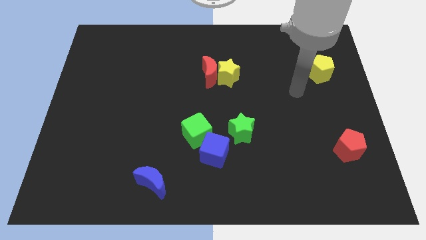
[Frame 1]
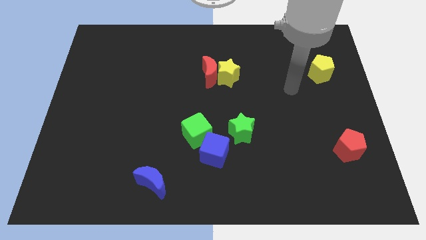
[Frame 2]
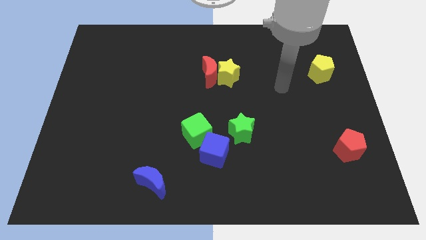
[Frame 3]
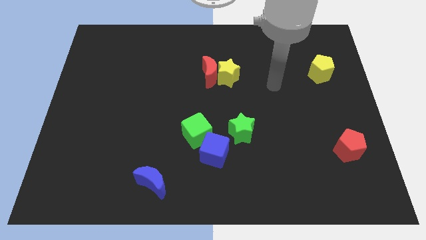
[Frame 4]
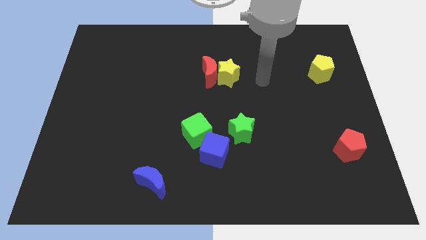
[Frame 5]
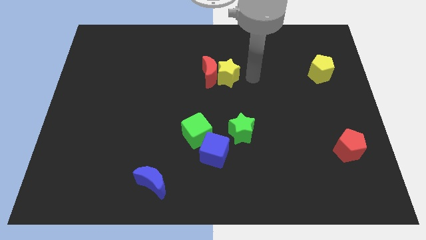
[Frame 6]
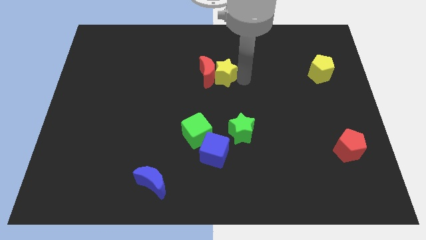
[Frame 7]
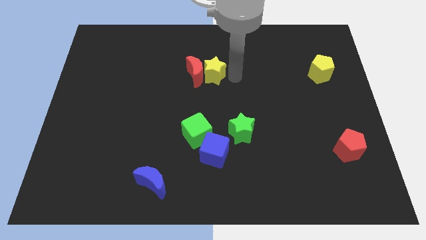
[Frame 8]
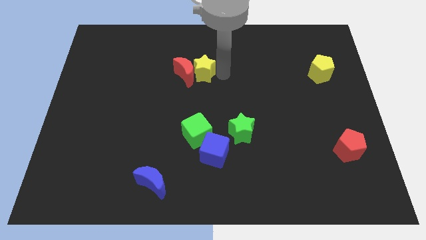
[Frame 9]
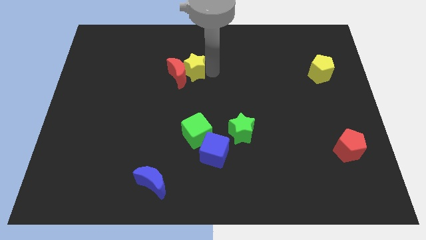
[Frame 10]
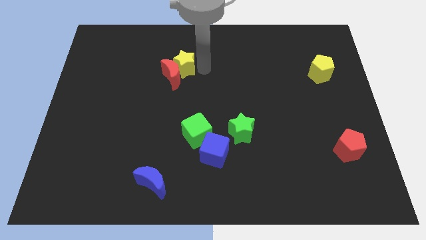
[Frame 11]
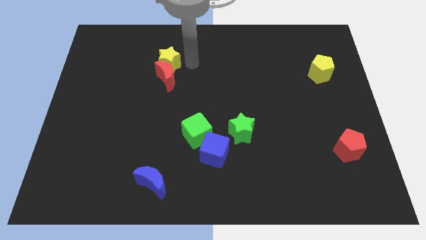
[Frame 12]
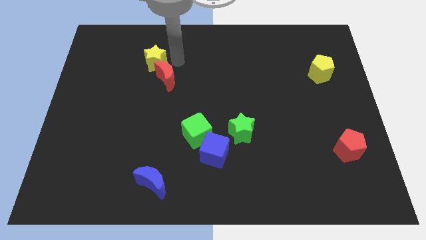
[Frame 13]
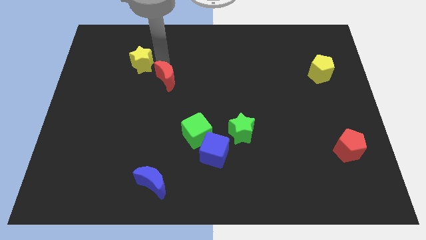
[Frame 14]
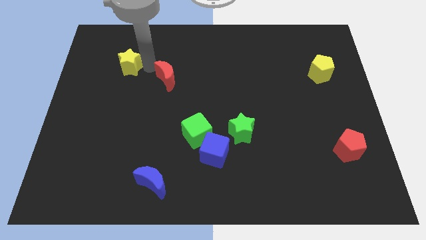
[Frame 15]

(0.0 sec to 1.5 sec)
separate the red moon from the yellow star

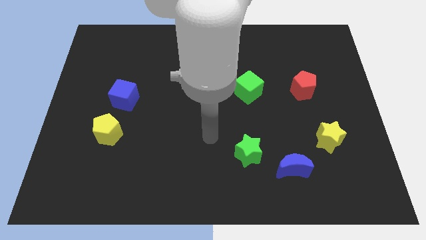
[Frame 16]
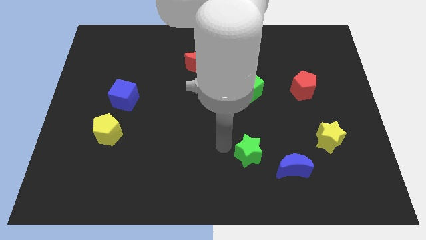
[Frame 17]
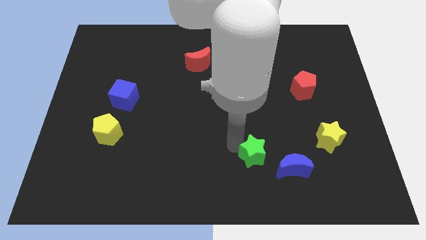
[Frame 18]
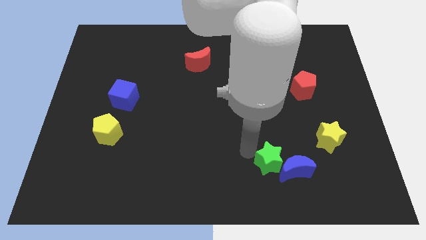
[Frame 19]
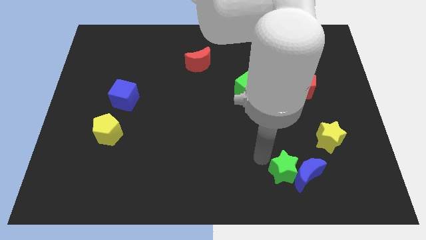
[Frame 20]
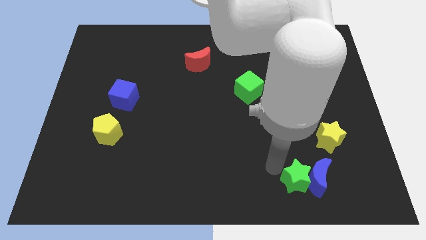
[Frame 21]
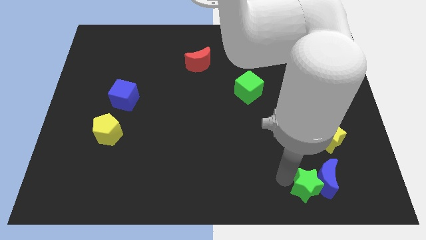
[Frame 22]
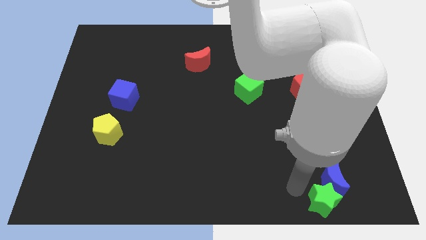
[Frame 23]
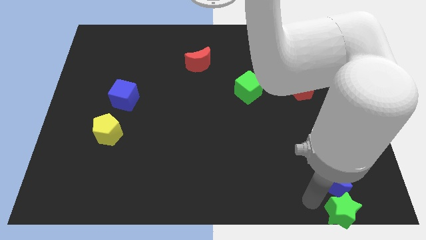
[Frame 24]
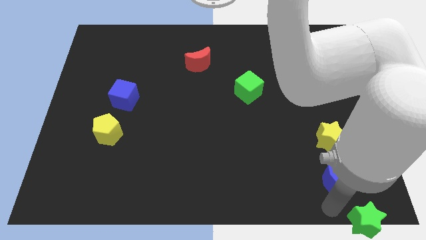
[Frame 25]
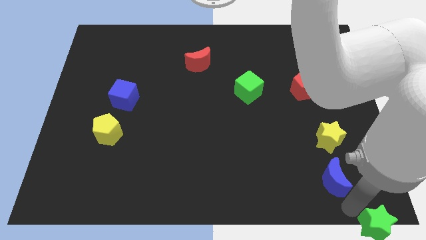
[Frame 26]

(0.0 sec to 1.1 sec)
separate the blue moon from the green star

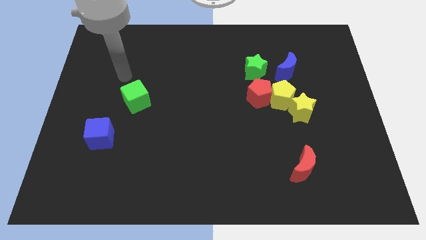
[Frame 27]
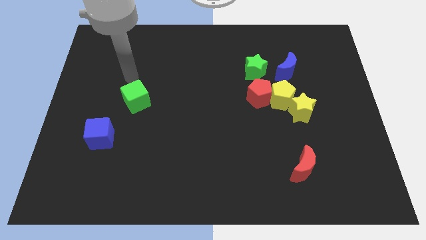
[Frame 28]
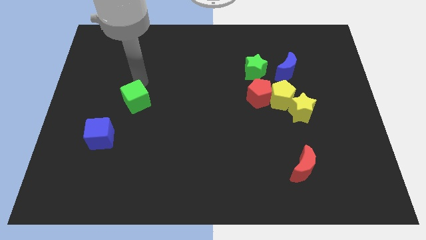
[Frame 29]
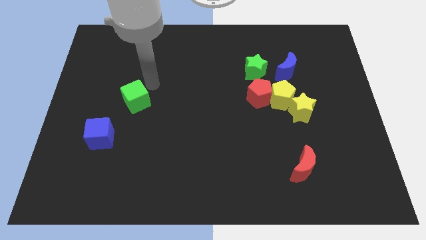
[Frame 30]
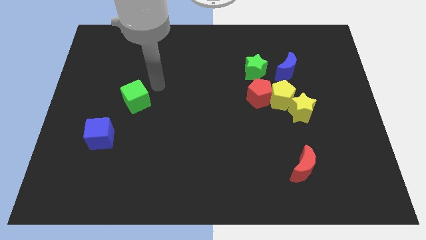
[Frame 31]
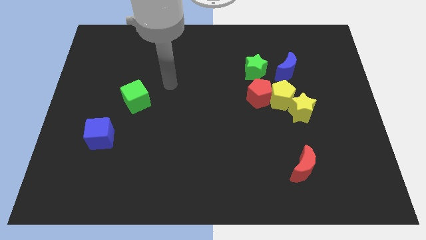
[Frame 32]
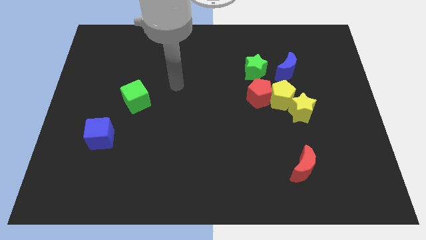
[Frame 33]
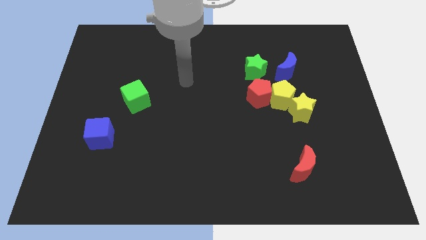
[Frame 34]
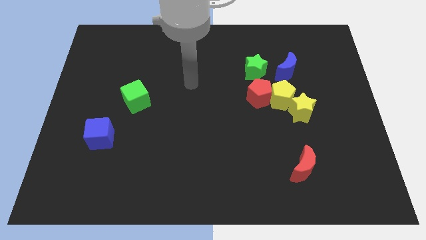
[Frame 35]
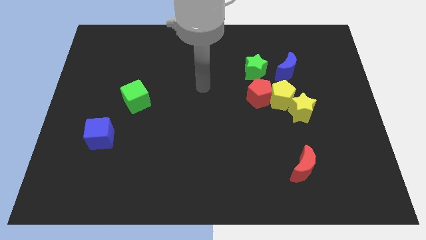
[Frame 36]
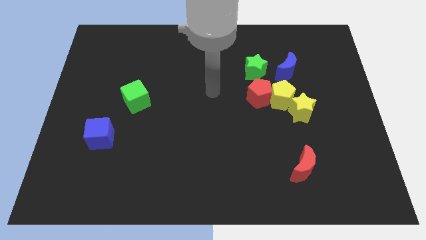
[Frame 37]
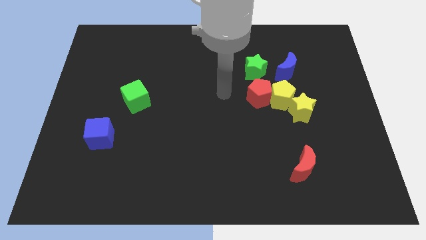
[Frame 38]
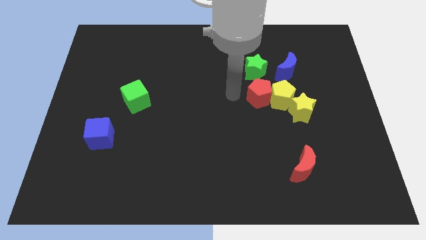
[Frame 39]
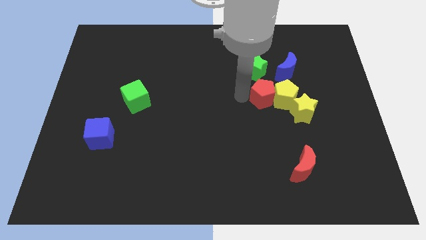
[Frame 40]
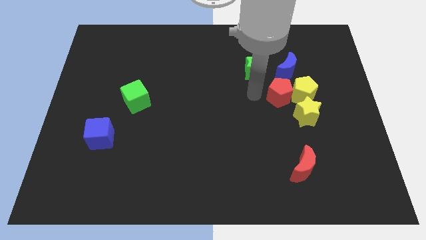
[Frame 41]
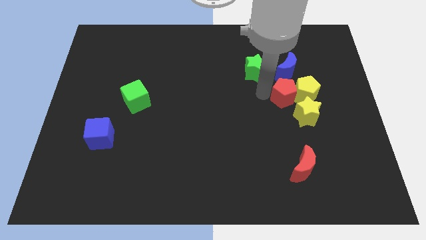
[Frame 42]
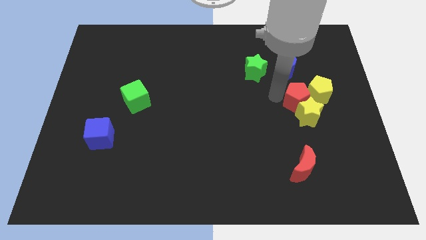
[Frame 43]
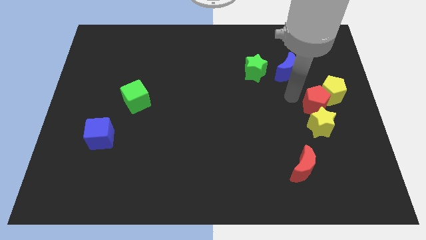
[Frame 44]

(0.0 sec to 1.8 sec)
move the yellow star away from the yellow pentagon

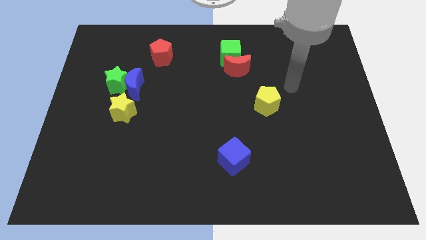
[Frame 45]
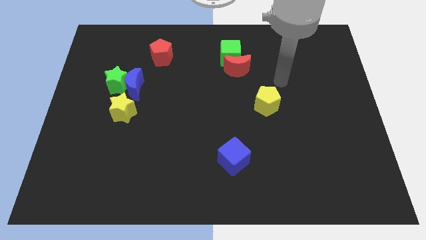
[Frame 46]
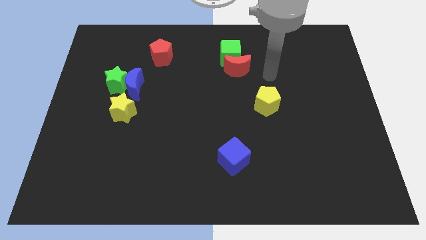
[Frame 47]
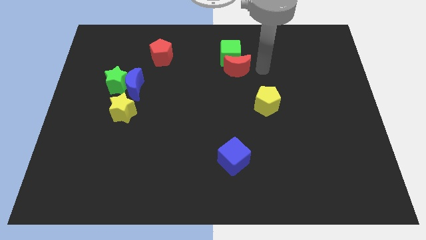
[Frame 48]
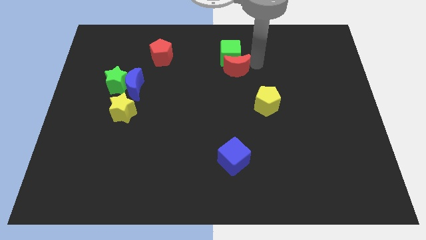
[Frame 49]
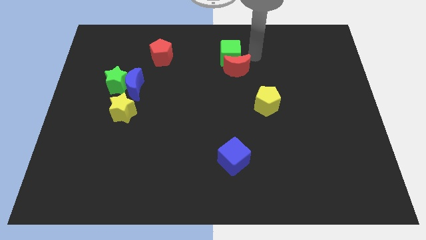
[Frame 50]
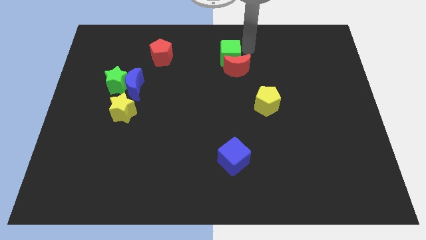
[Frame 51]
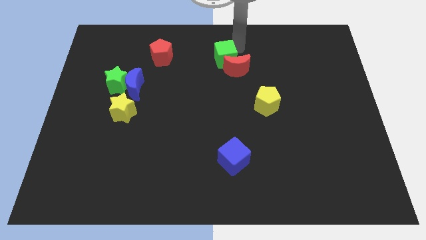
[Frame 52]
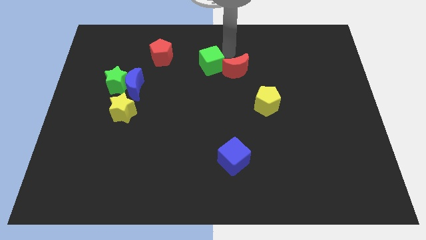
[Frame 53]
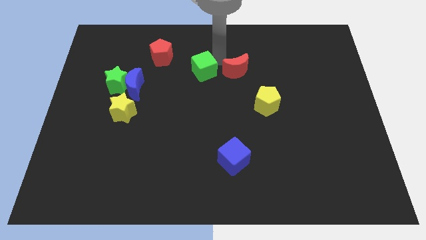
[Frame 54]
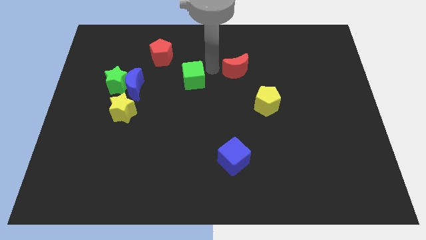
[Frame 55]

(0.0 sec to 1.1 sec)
pull the red moon apart from the green cube

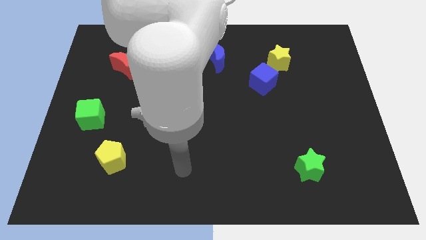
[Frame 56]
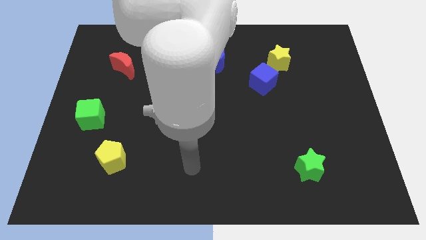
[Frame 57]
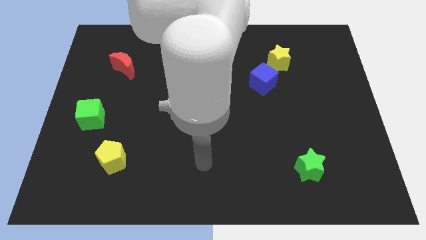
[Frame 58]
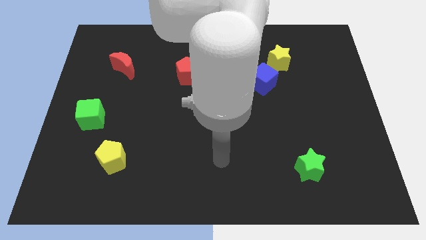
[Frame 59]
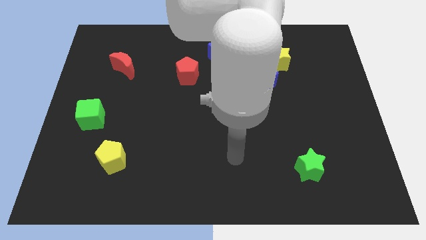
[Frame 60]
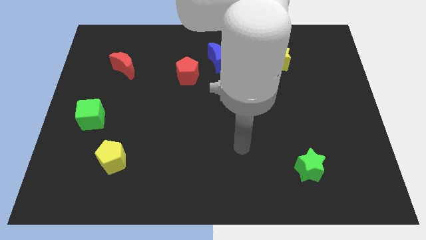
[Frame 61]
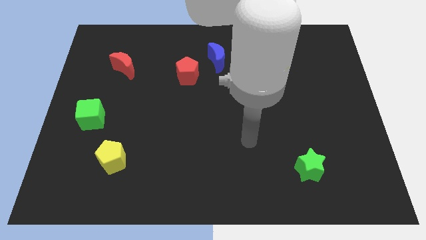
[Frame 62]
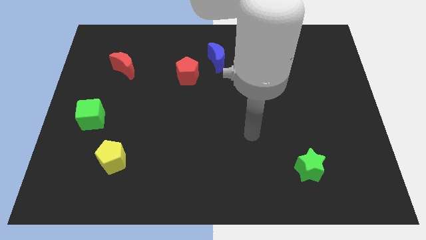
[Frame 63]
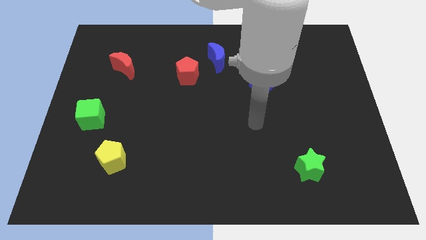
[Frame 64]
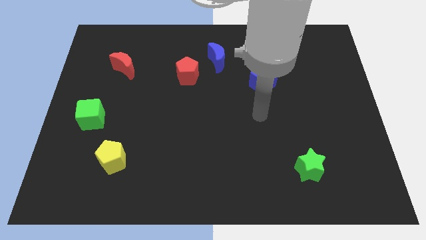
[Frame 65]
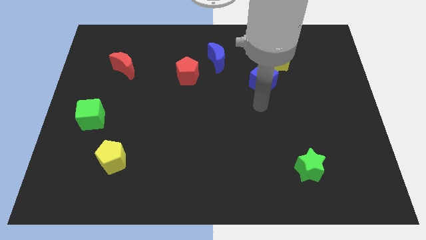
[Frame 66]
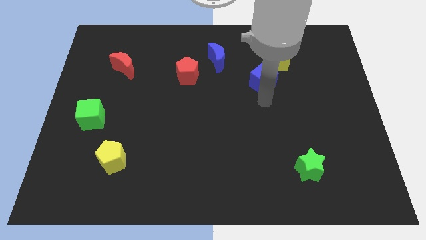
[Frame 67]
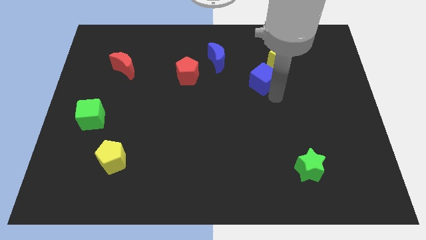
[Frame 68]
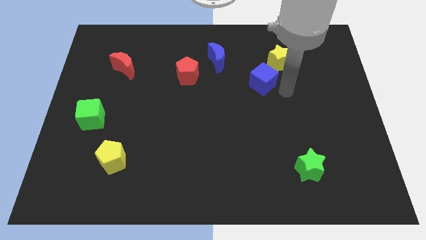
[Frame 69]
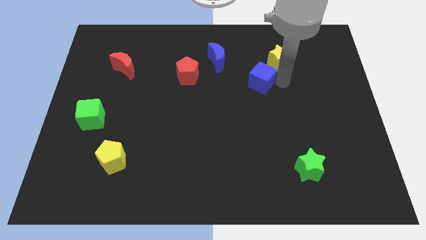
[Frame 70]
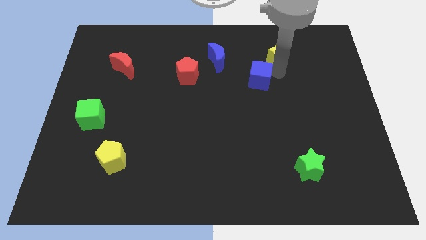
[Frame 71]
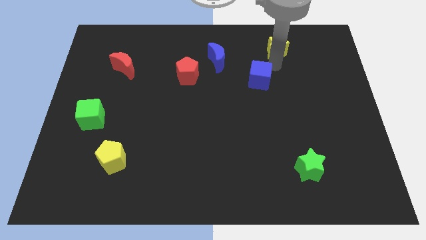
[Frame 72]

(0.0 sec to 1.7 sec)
separate the blue cube from the yellow star

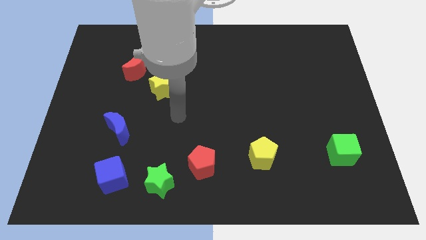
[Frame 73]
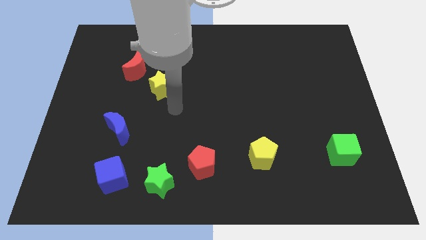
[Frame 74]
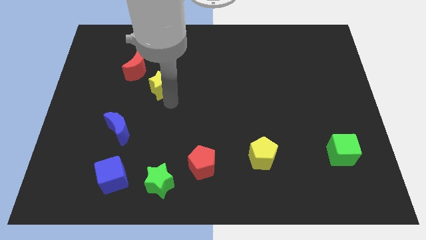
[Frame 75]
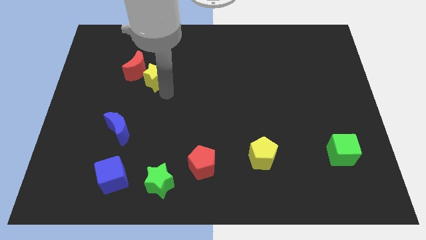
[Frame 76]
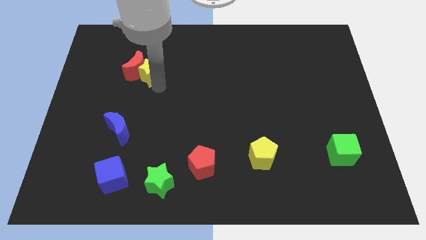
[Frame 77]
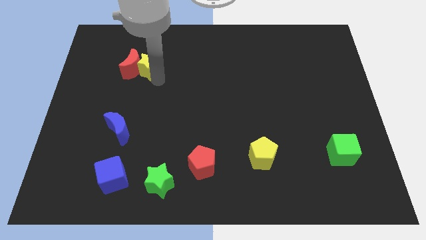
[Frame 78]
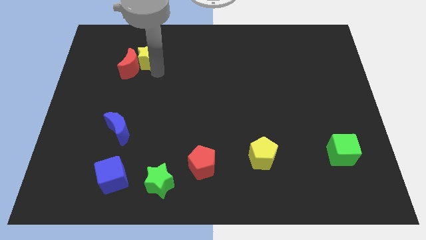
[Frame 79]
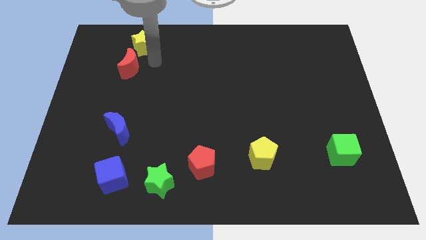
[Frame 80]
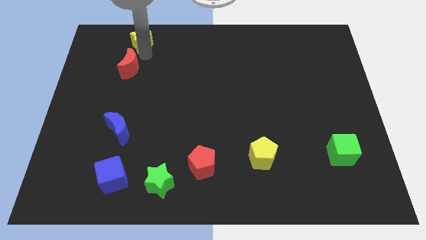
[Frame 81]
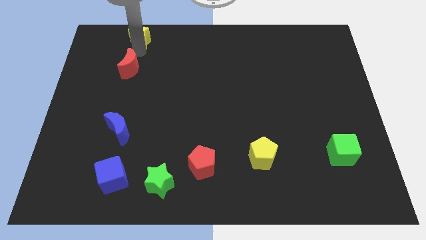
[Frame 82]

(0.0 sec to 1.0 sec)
move the red moon away from the yellow star

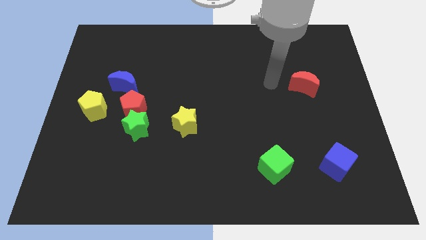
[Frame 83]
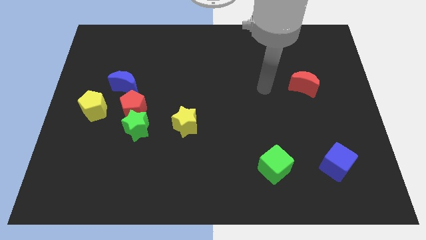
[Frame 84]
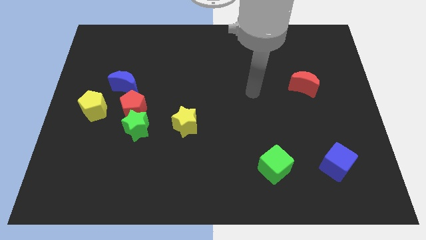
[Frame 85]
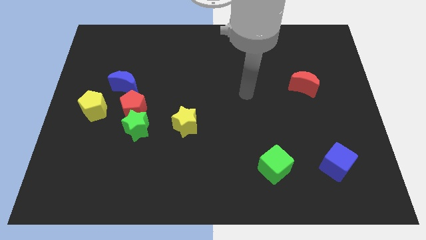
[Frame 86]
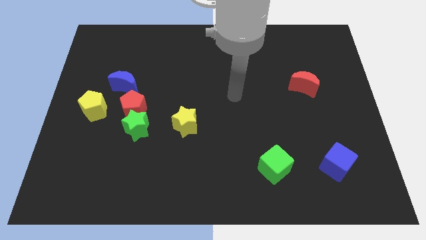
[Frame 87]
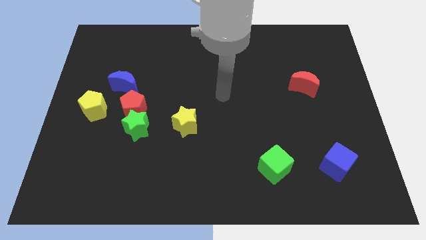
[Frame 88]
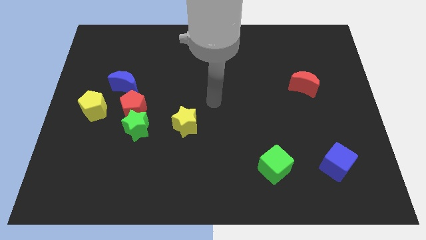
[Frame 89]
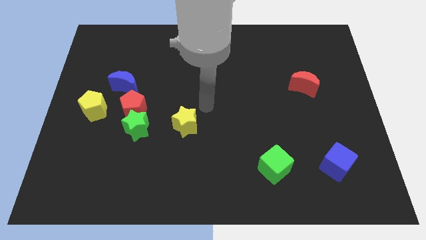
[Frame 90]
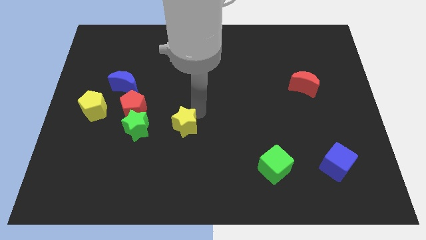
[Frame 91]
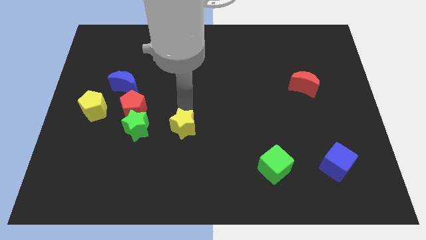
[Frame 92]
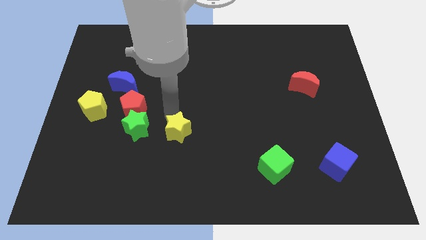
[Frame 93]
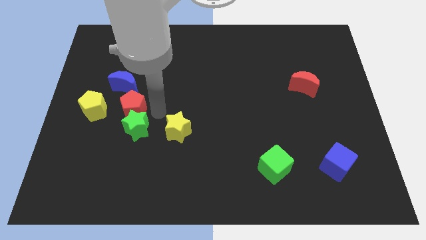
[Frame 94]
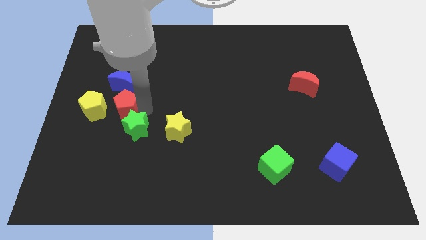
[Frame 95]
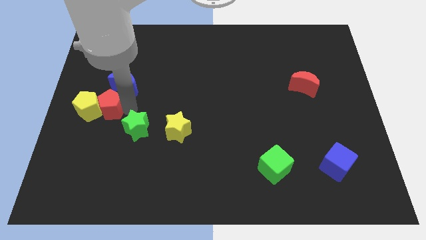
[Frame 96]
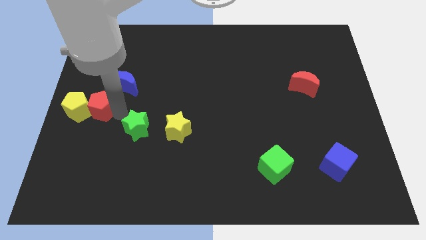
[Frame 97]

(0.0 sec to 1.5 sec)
move the green star away from the red pentagon
